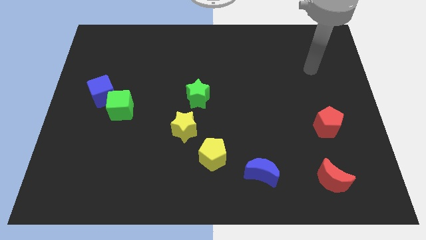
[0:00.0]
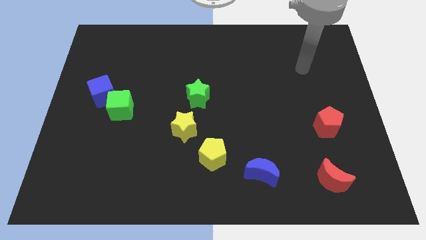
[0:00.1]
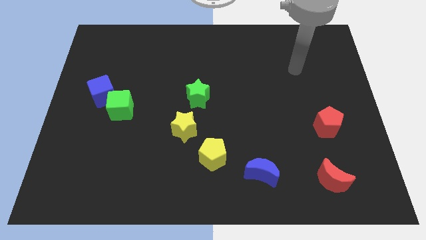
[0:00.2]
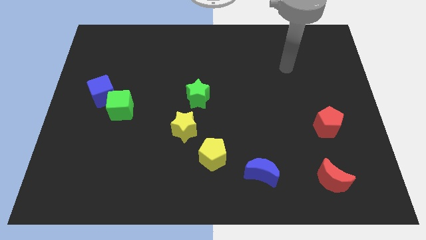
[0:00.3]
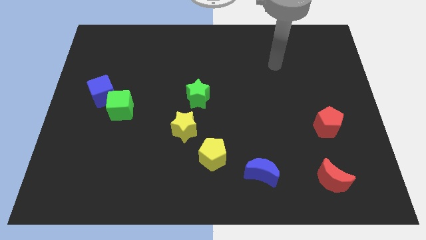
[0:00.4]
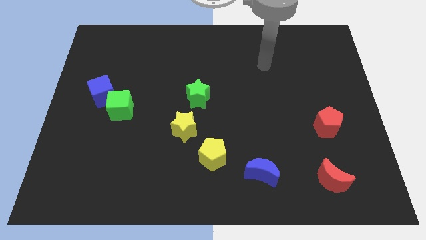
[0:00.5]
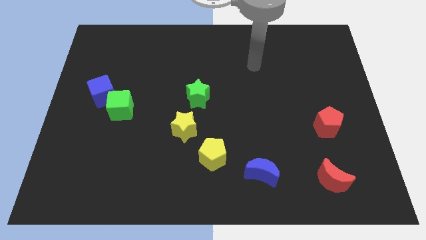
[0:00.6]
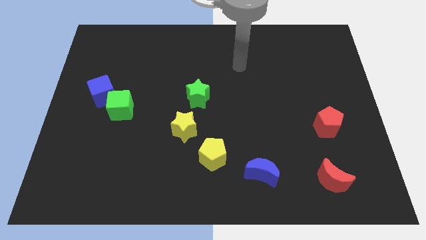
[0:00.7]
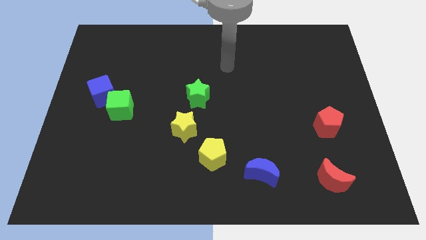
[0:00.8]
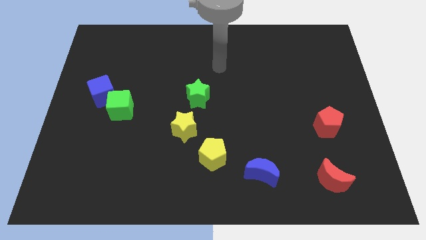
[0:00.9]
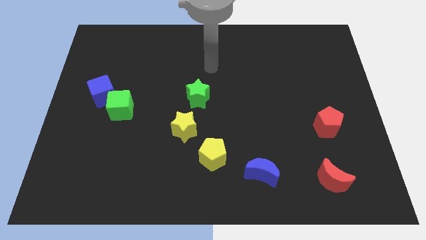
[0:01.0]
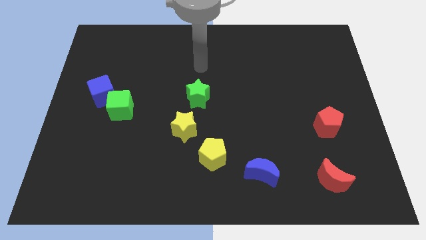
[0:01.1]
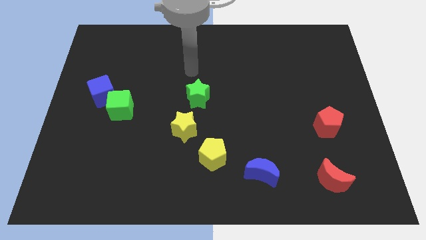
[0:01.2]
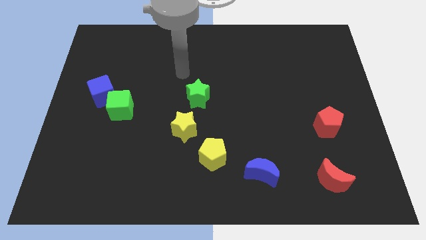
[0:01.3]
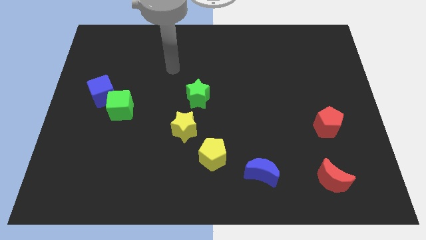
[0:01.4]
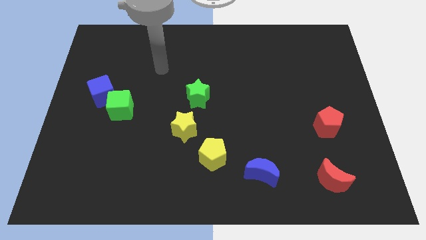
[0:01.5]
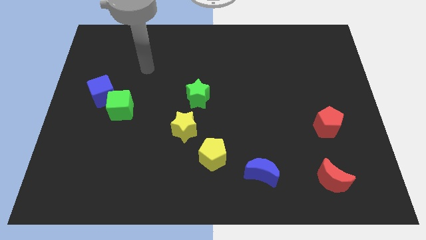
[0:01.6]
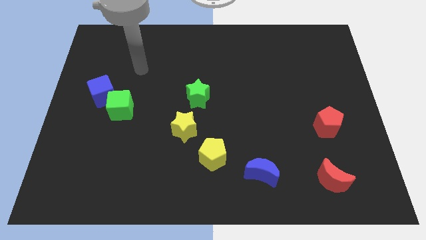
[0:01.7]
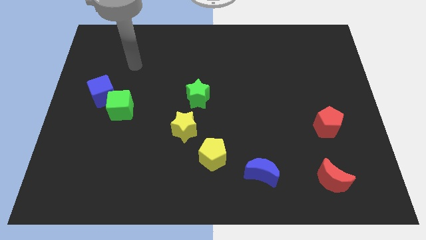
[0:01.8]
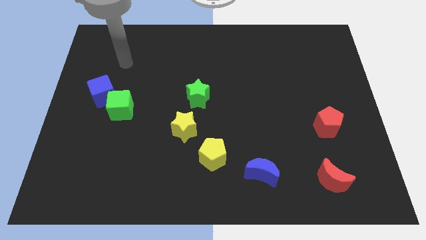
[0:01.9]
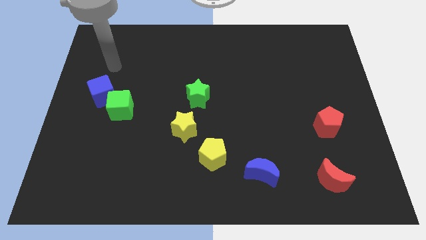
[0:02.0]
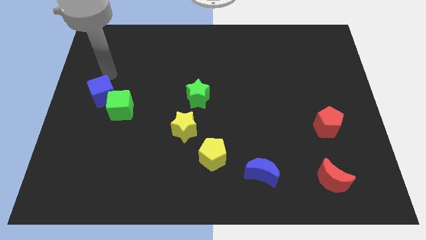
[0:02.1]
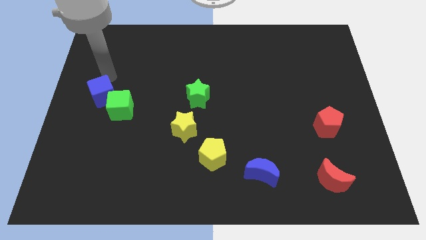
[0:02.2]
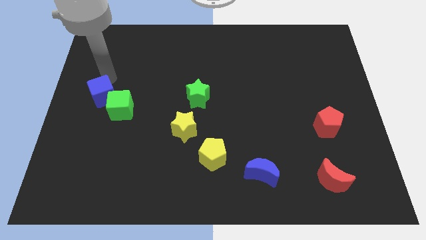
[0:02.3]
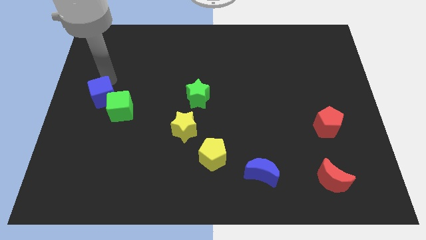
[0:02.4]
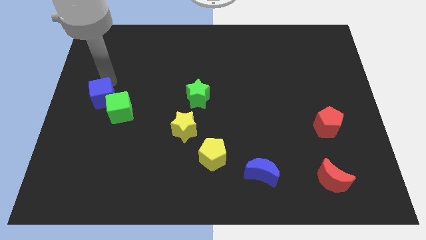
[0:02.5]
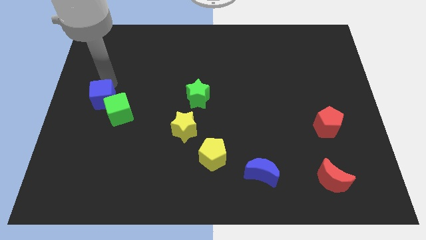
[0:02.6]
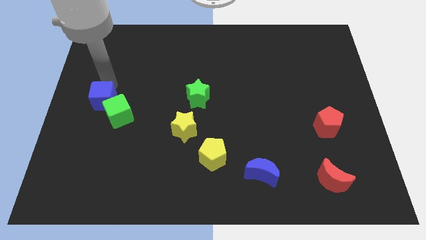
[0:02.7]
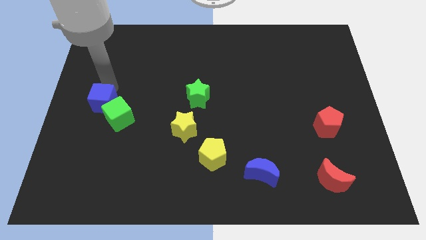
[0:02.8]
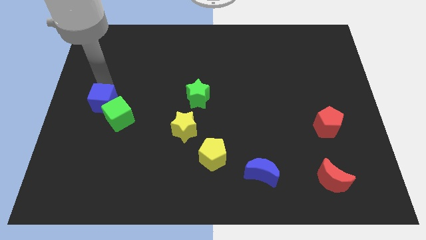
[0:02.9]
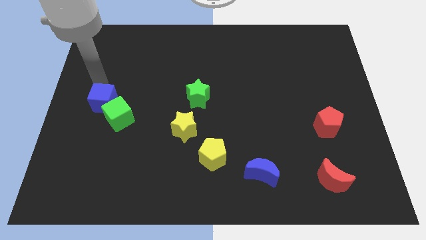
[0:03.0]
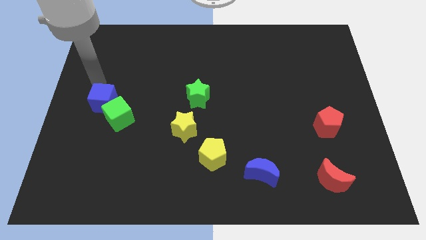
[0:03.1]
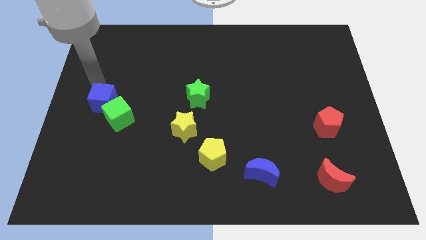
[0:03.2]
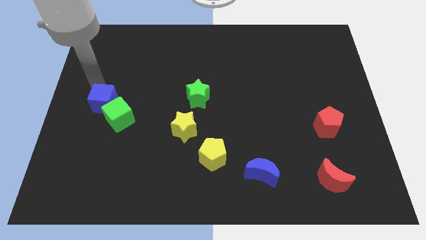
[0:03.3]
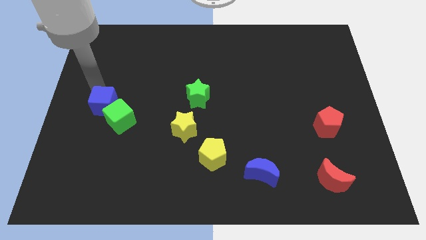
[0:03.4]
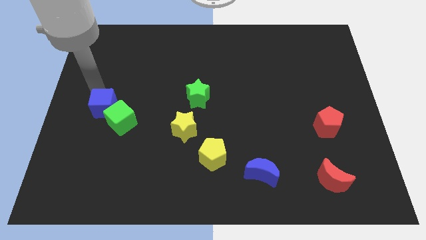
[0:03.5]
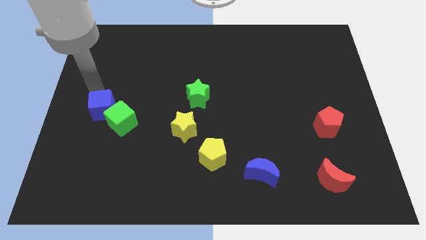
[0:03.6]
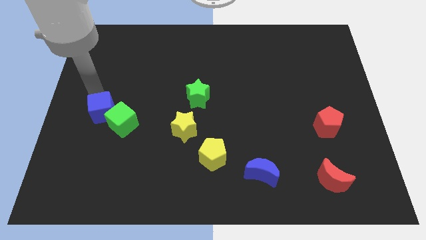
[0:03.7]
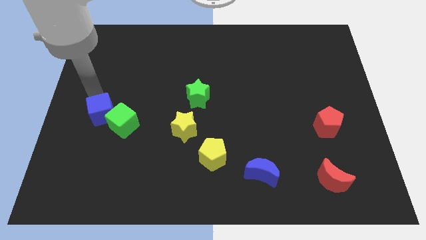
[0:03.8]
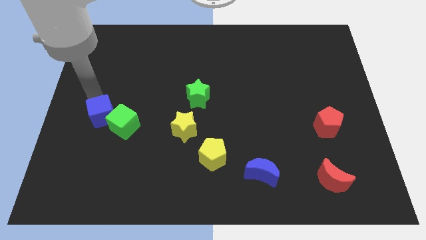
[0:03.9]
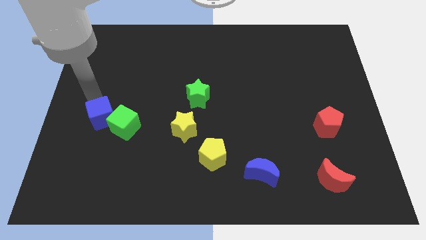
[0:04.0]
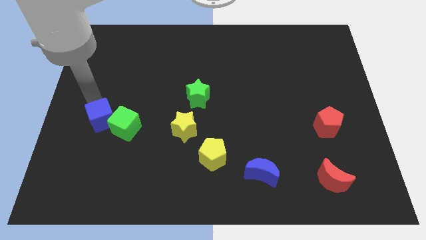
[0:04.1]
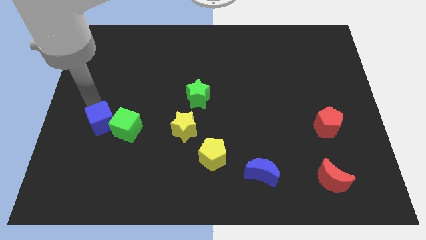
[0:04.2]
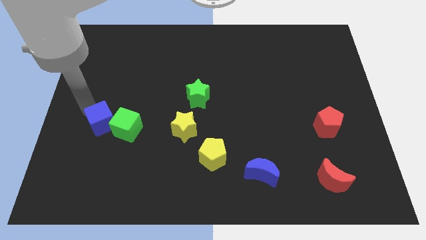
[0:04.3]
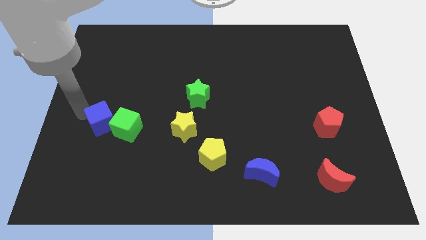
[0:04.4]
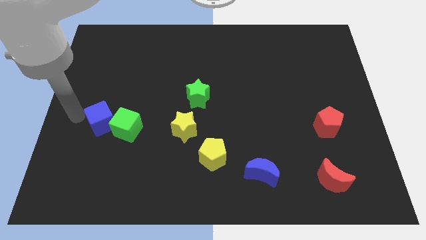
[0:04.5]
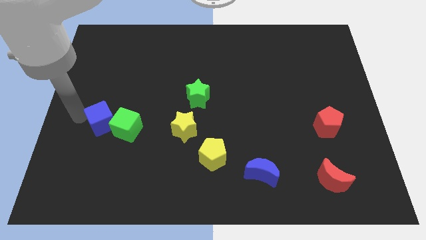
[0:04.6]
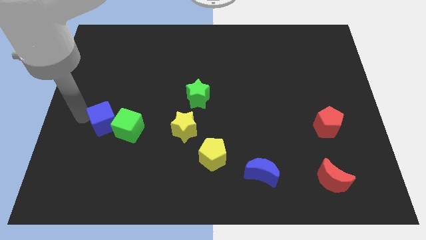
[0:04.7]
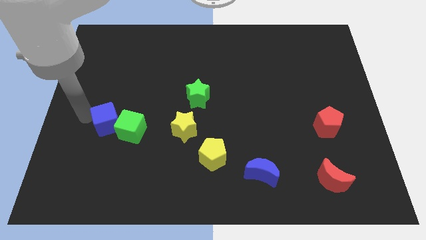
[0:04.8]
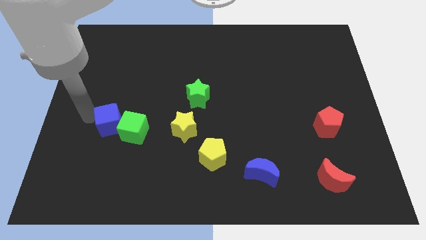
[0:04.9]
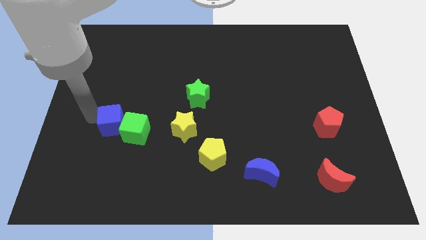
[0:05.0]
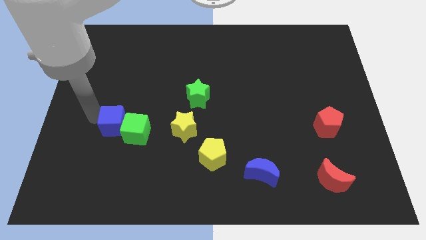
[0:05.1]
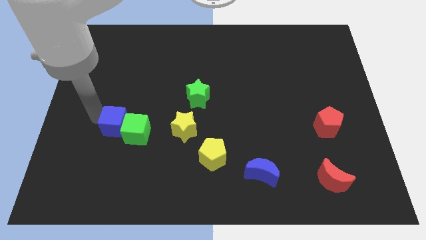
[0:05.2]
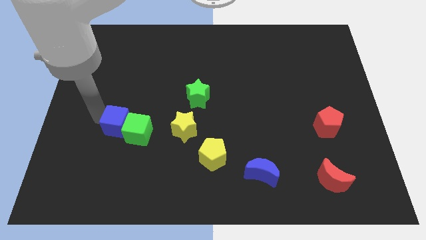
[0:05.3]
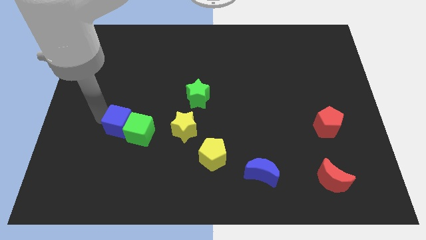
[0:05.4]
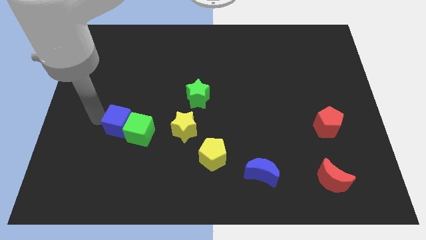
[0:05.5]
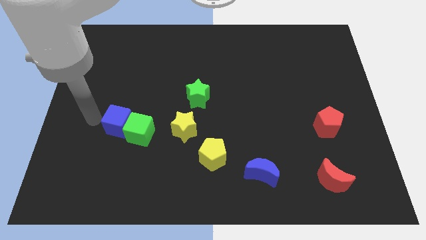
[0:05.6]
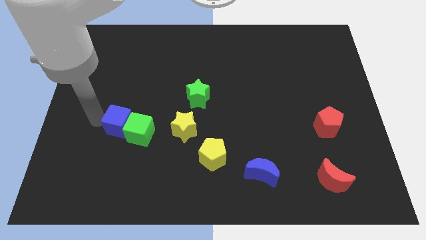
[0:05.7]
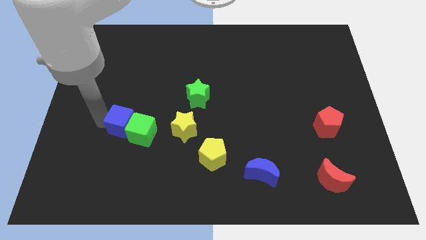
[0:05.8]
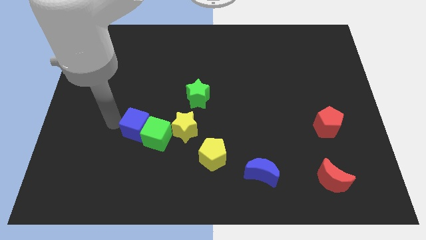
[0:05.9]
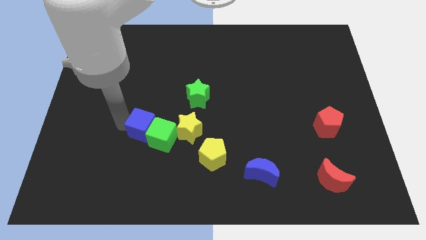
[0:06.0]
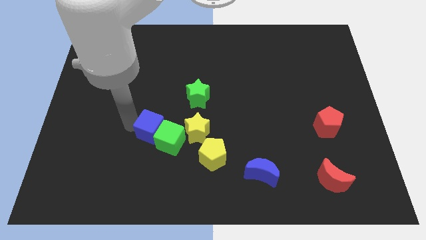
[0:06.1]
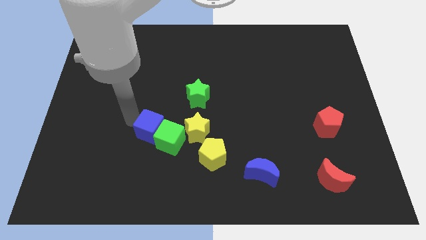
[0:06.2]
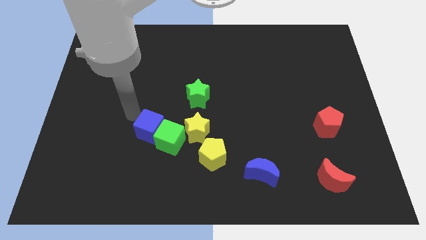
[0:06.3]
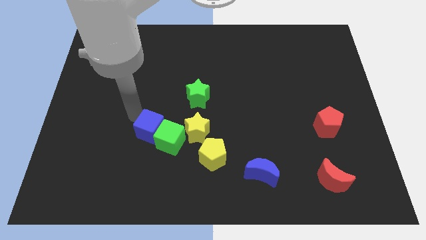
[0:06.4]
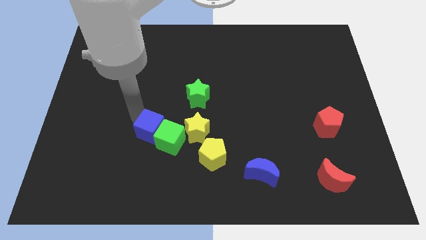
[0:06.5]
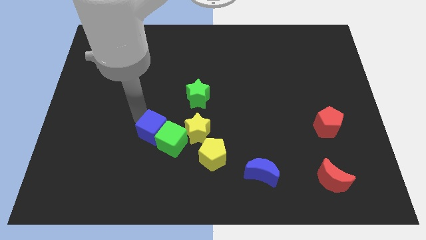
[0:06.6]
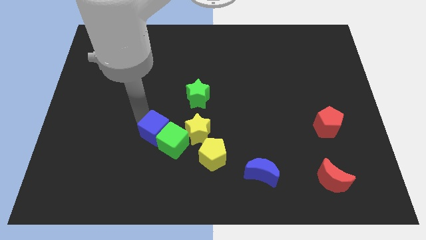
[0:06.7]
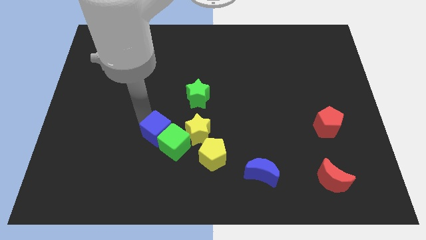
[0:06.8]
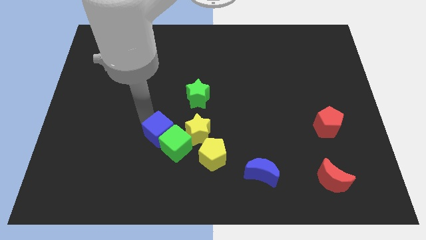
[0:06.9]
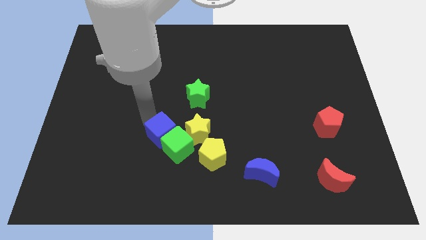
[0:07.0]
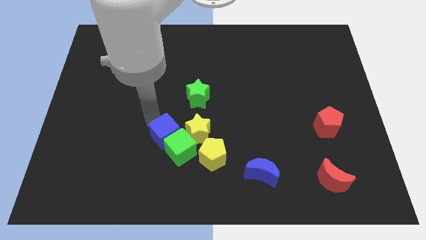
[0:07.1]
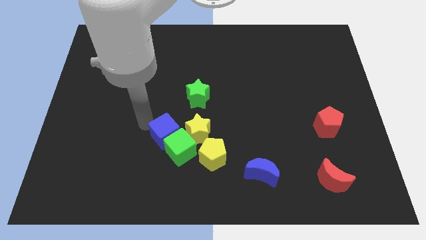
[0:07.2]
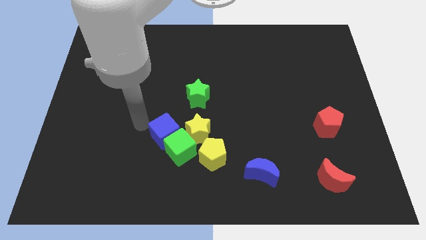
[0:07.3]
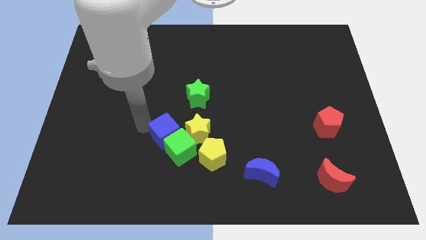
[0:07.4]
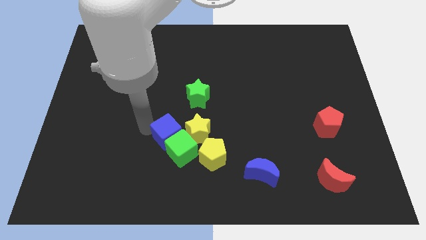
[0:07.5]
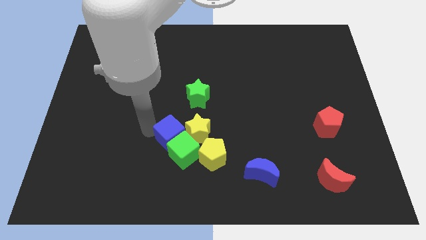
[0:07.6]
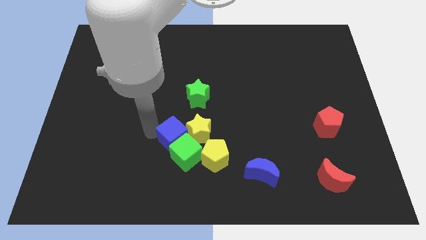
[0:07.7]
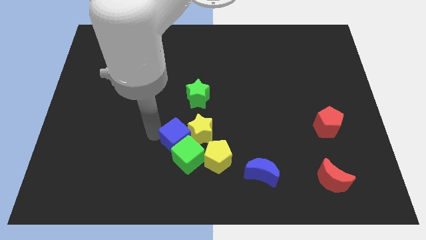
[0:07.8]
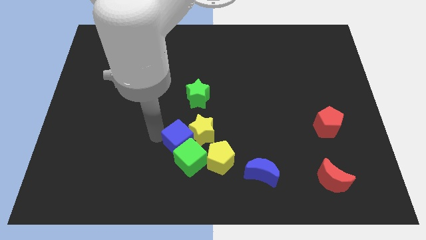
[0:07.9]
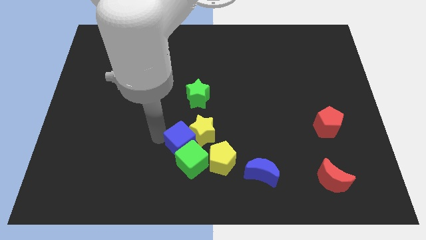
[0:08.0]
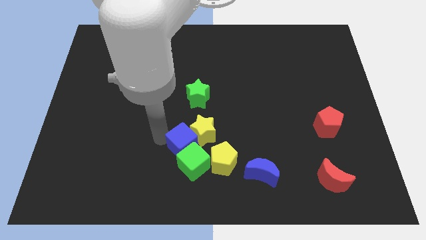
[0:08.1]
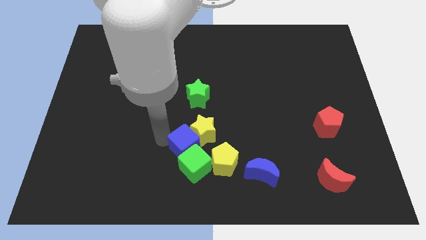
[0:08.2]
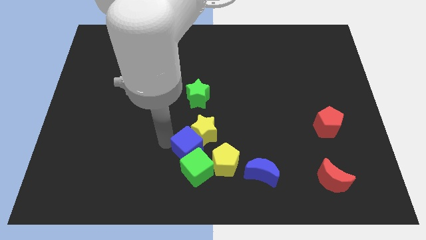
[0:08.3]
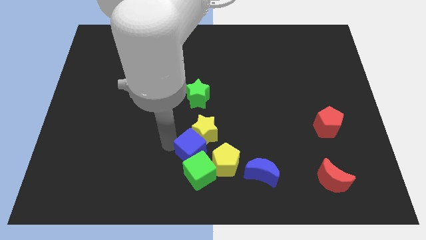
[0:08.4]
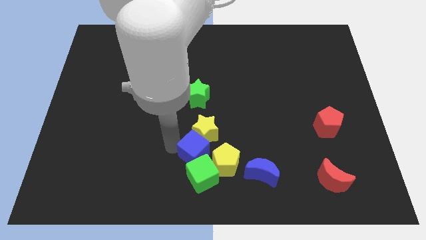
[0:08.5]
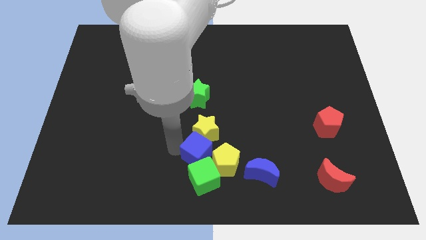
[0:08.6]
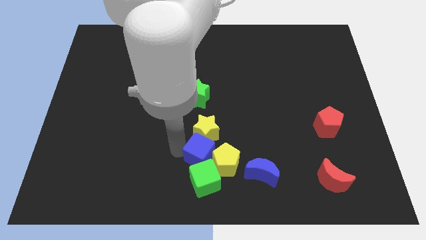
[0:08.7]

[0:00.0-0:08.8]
slide the blue cube close to the yellow pentagon
